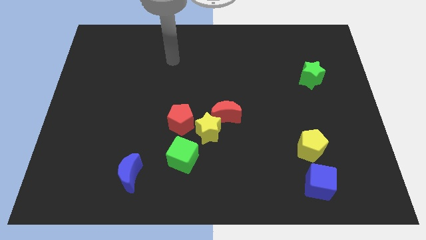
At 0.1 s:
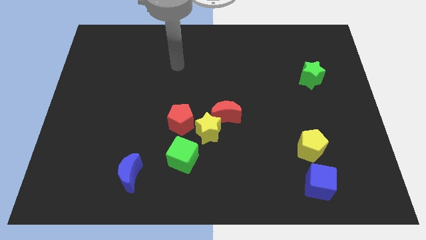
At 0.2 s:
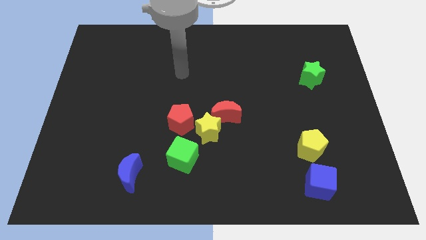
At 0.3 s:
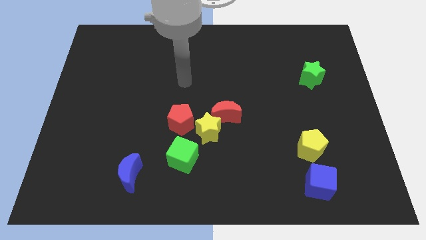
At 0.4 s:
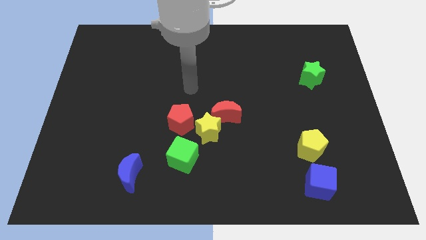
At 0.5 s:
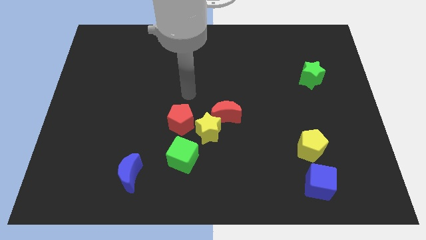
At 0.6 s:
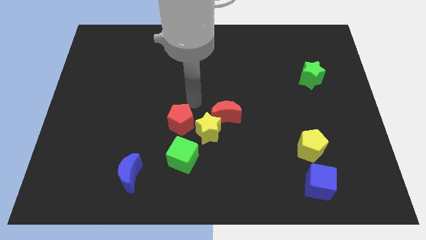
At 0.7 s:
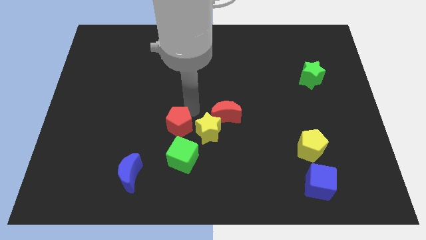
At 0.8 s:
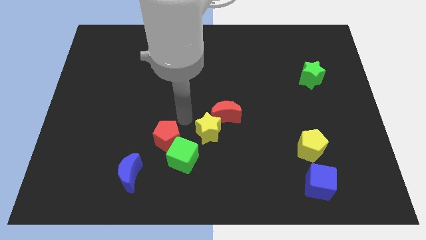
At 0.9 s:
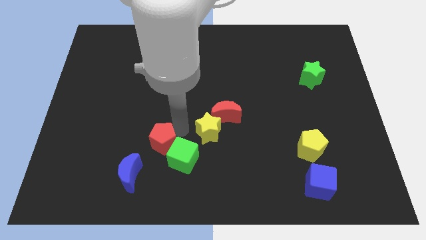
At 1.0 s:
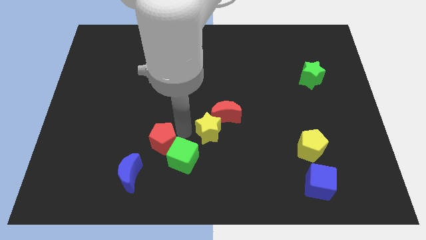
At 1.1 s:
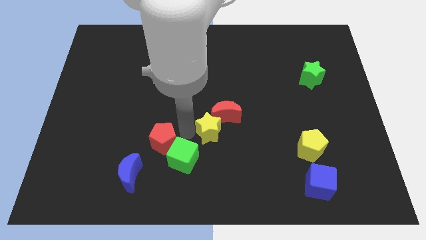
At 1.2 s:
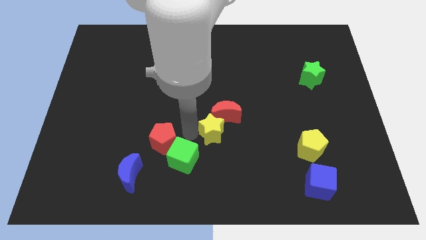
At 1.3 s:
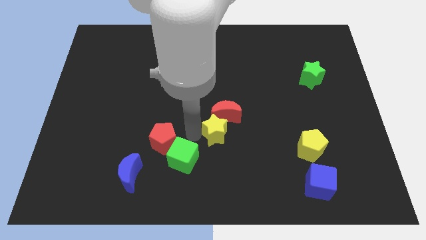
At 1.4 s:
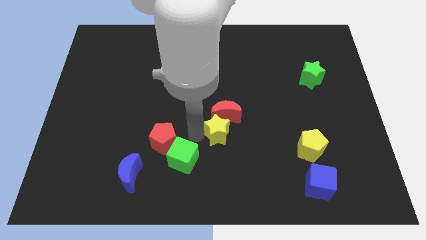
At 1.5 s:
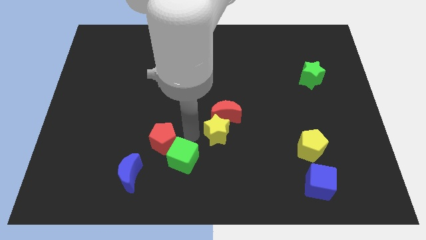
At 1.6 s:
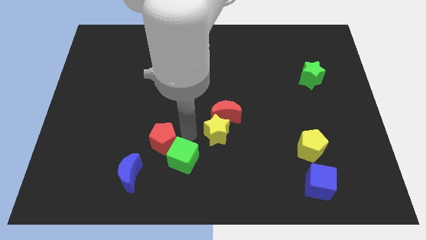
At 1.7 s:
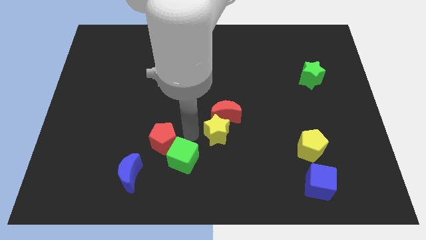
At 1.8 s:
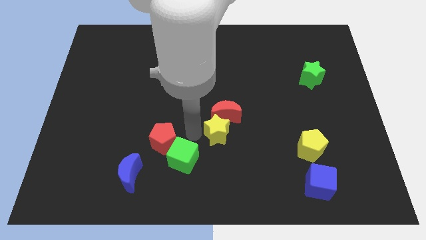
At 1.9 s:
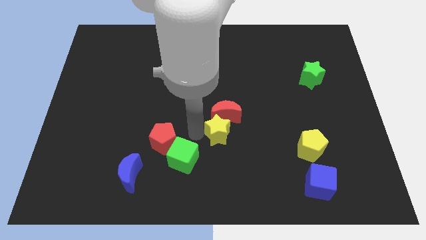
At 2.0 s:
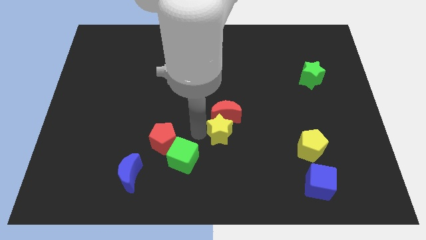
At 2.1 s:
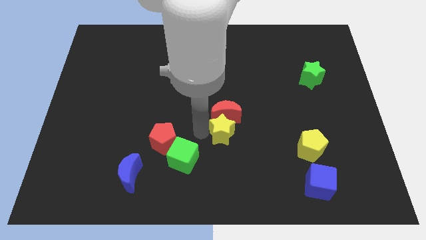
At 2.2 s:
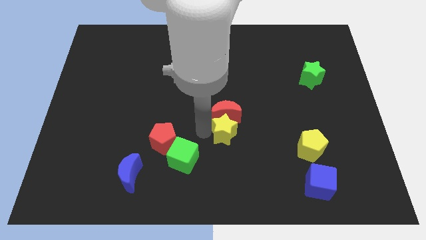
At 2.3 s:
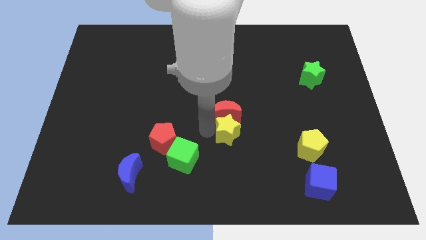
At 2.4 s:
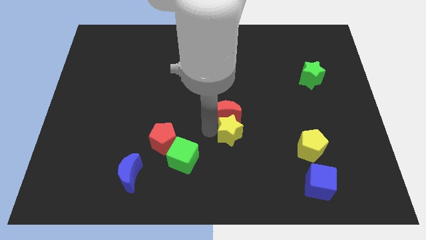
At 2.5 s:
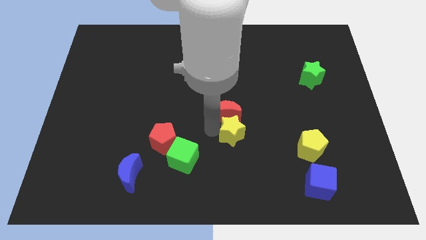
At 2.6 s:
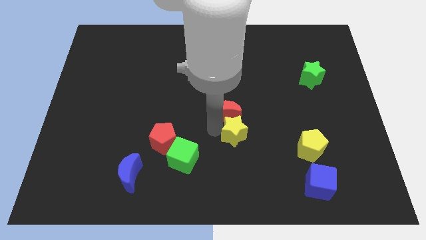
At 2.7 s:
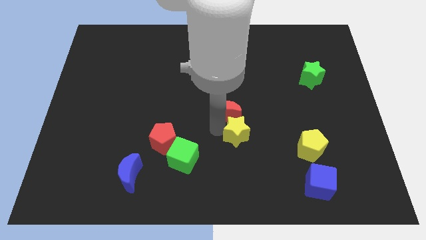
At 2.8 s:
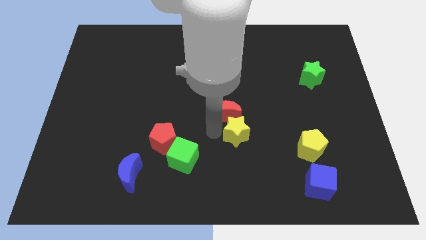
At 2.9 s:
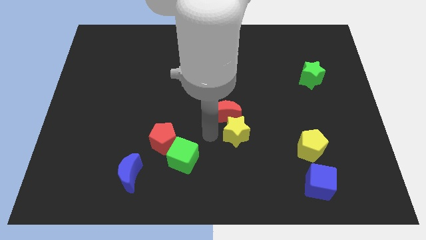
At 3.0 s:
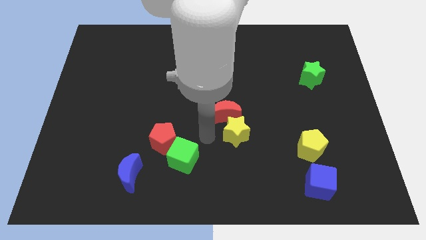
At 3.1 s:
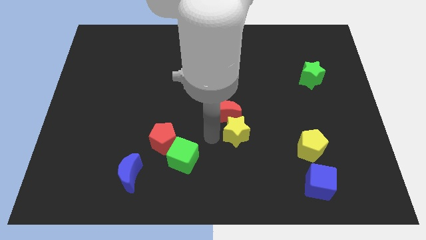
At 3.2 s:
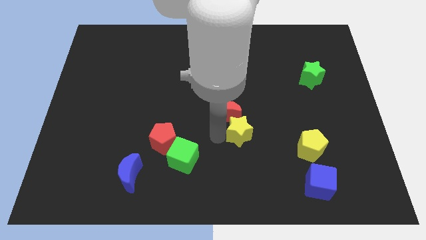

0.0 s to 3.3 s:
pull the yellow star apart from the red moon, red pentagon, and green cube

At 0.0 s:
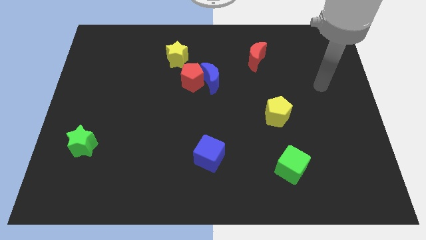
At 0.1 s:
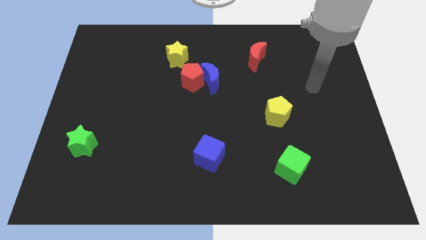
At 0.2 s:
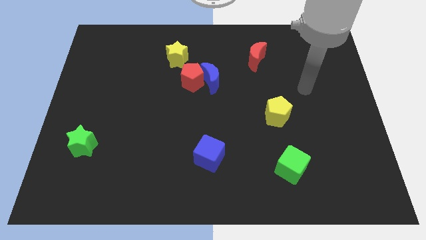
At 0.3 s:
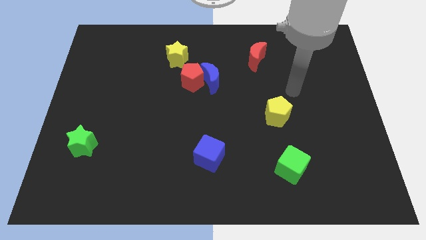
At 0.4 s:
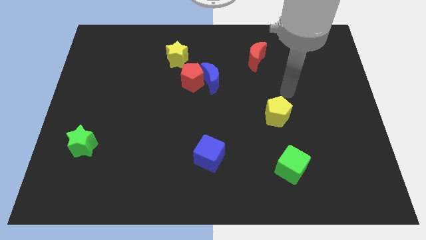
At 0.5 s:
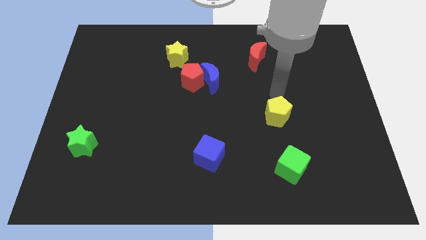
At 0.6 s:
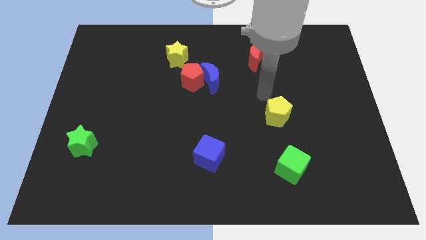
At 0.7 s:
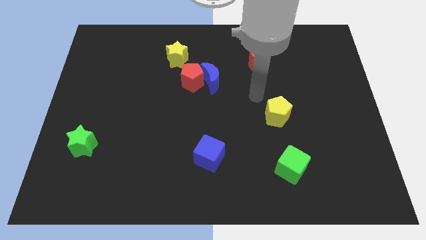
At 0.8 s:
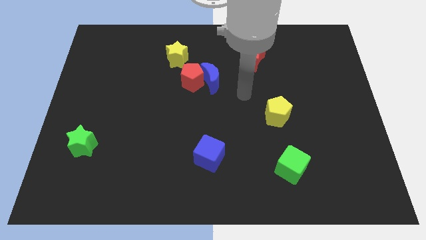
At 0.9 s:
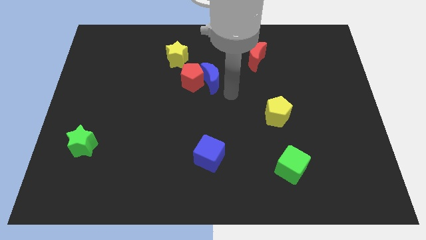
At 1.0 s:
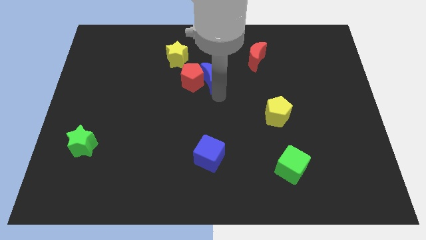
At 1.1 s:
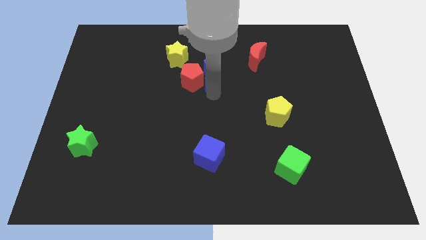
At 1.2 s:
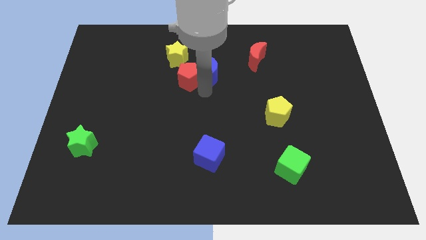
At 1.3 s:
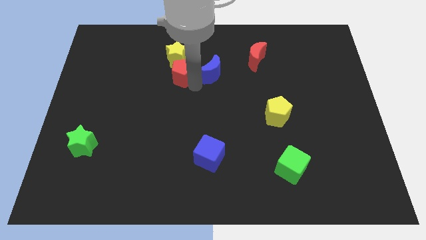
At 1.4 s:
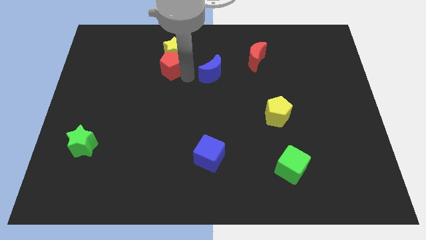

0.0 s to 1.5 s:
separate the blue moon from the red pentagon

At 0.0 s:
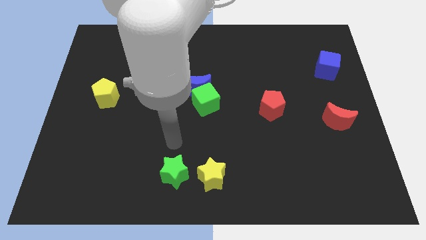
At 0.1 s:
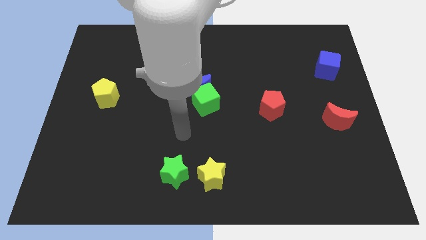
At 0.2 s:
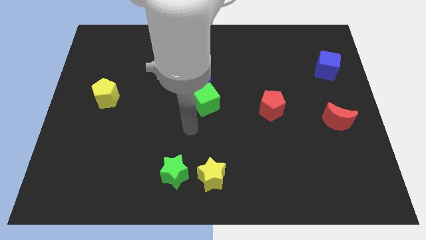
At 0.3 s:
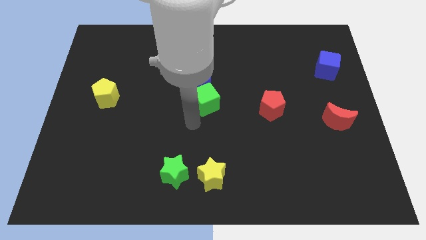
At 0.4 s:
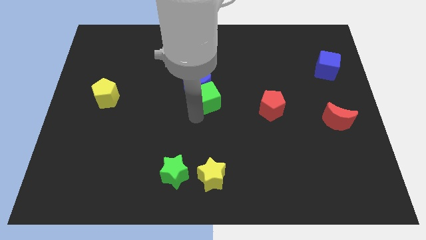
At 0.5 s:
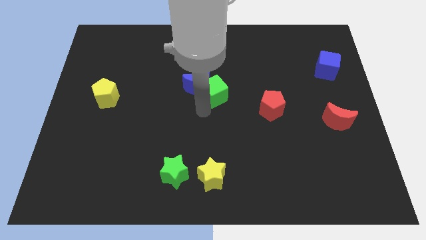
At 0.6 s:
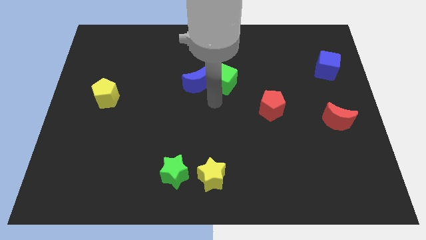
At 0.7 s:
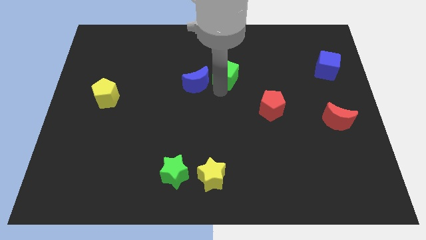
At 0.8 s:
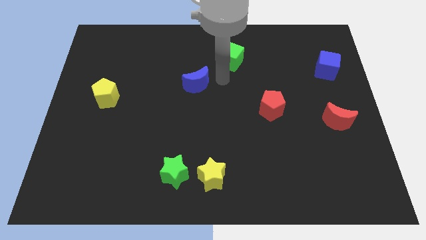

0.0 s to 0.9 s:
pull the blue moon apart from the green cube

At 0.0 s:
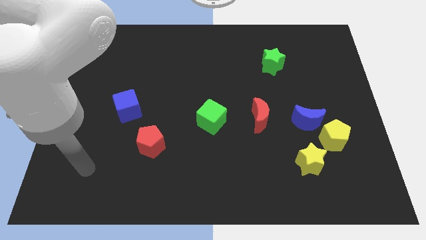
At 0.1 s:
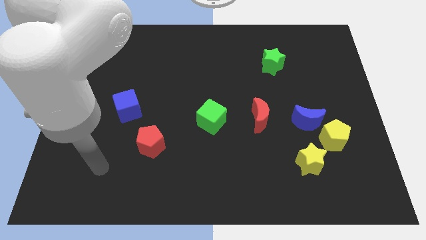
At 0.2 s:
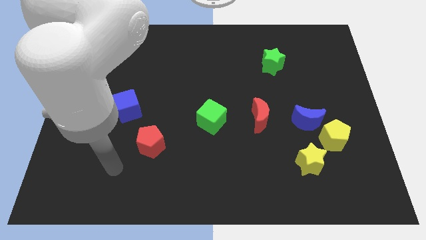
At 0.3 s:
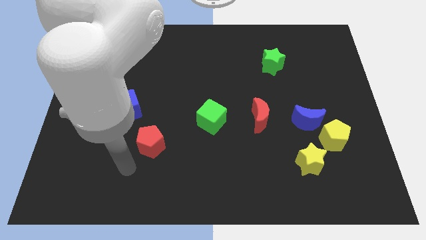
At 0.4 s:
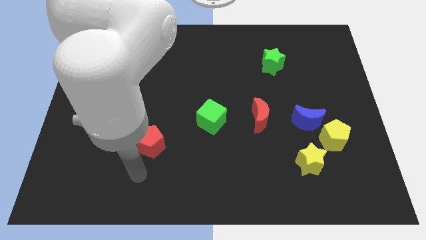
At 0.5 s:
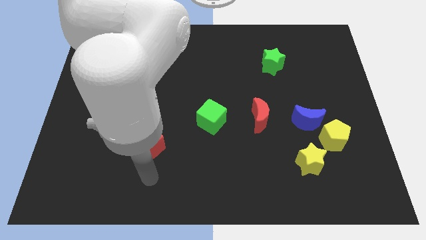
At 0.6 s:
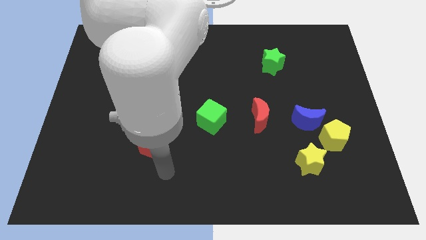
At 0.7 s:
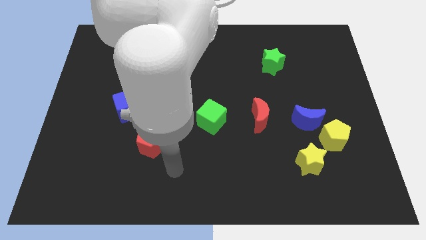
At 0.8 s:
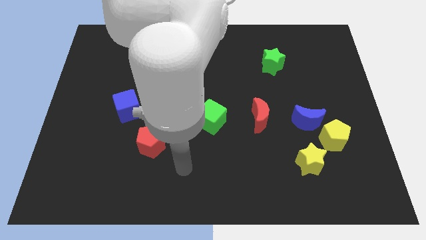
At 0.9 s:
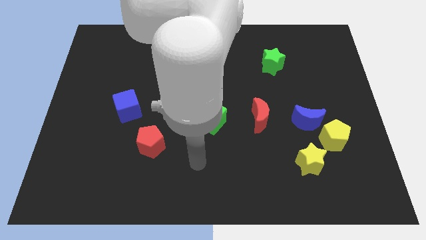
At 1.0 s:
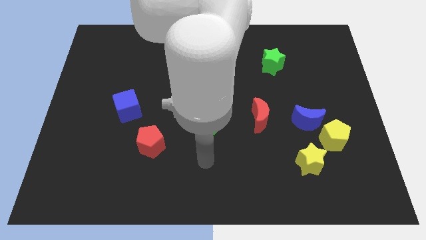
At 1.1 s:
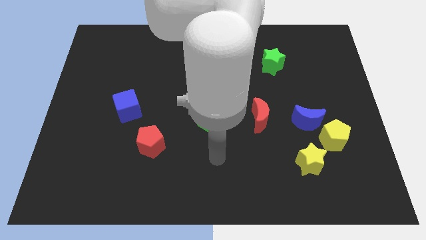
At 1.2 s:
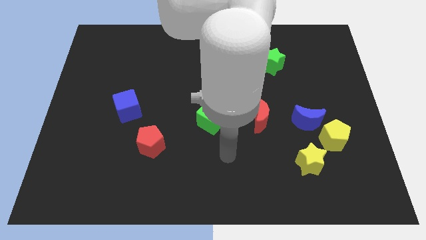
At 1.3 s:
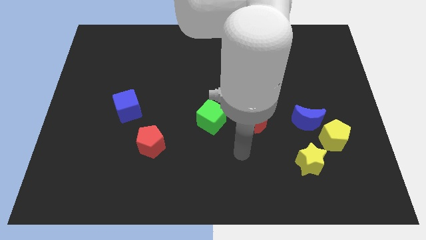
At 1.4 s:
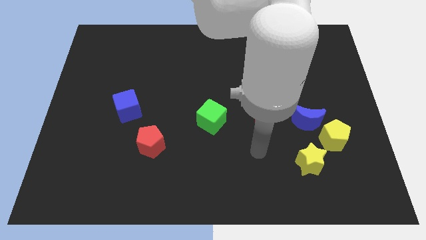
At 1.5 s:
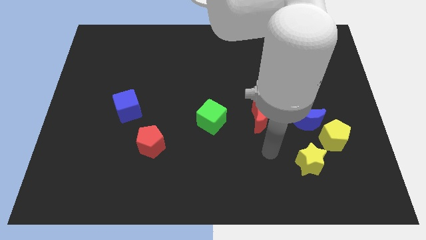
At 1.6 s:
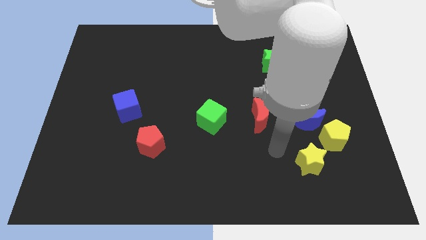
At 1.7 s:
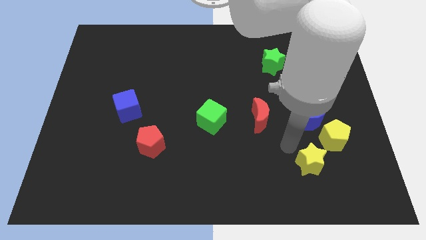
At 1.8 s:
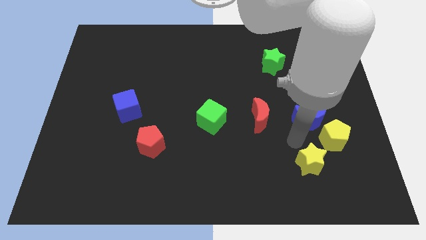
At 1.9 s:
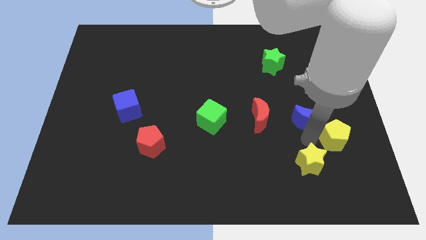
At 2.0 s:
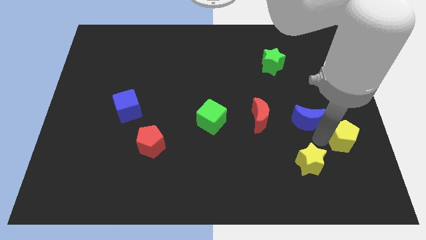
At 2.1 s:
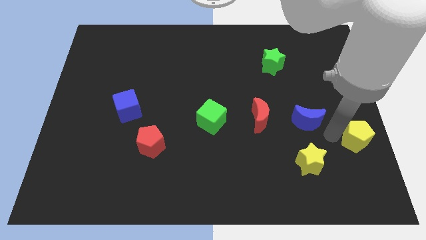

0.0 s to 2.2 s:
pull the blue moon apart from the yellow pentagon

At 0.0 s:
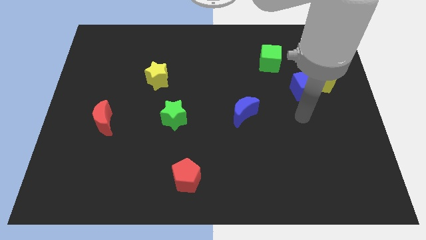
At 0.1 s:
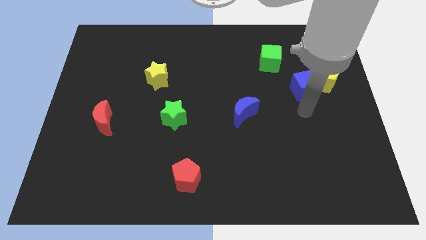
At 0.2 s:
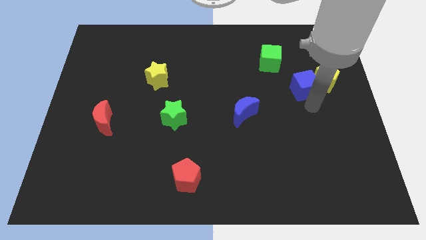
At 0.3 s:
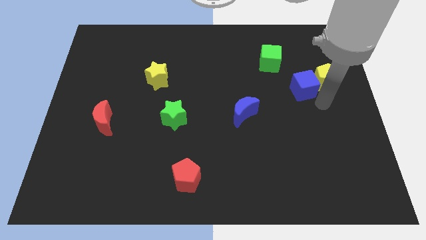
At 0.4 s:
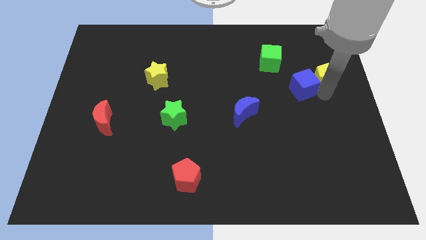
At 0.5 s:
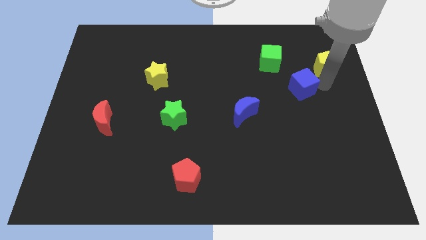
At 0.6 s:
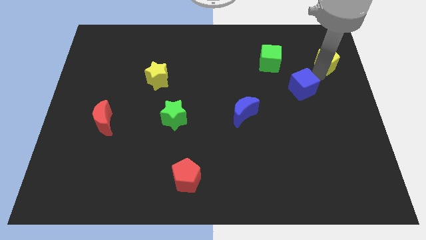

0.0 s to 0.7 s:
move the blue cube away from the yellow pentagon

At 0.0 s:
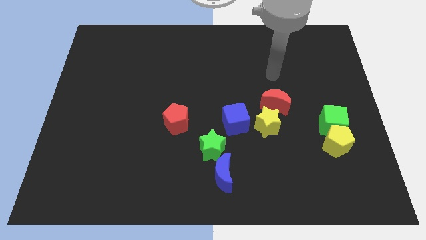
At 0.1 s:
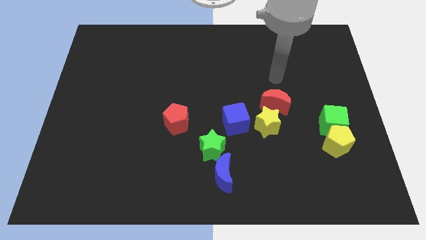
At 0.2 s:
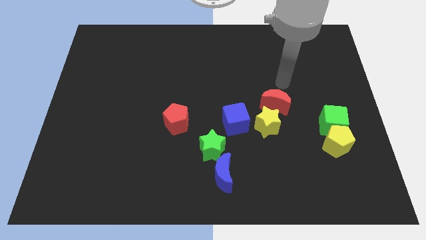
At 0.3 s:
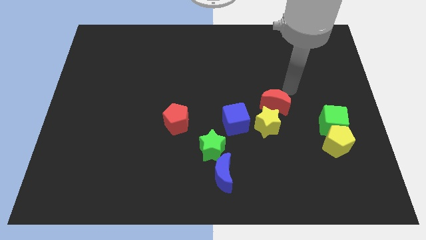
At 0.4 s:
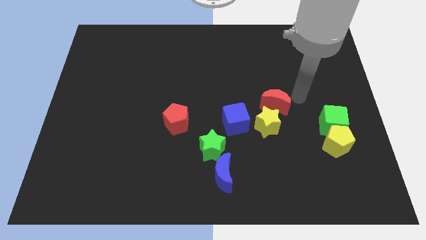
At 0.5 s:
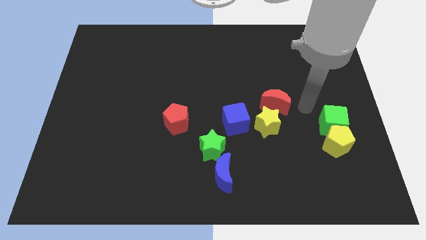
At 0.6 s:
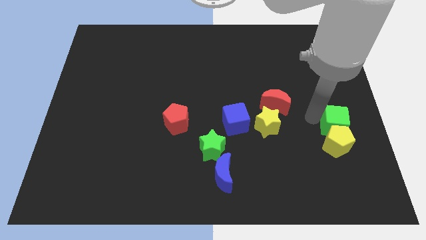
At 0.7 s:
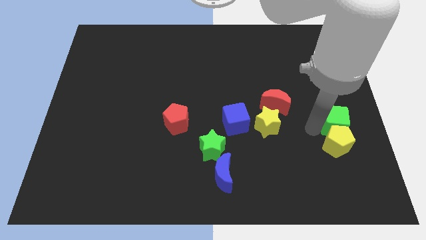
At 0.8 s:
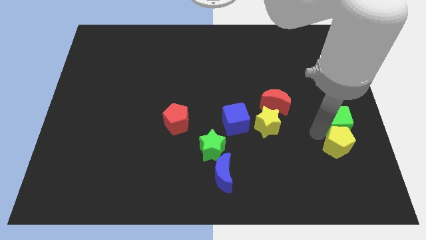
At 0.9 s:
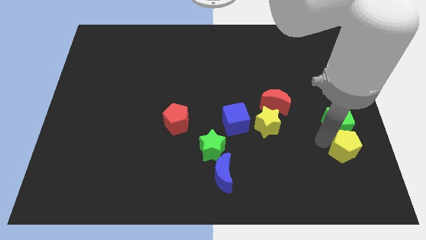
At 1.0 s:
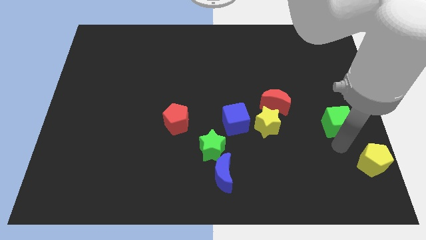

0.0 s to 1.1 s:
separate the green cube from the yellow pentagon
